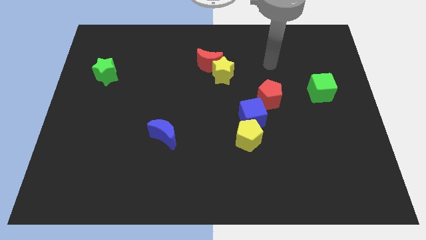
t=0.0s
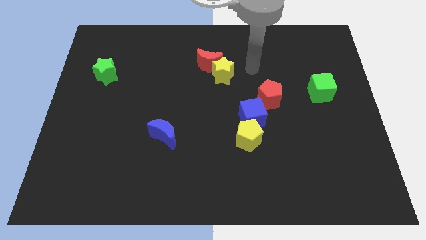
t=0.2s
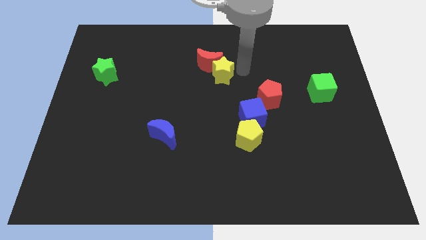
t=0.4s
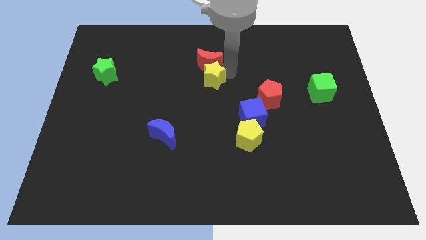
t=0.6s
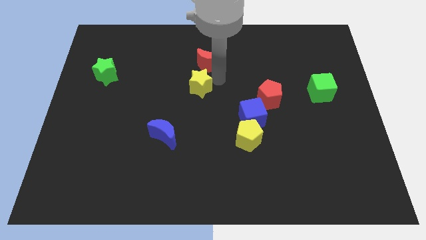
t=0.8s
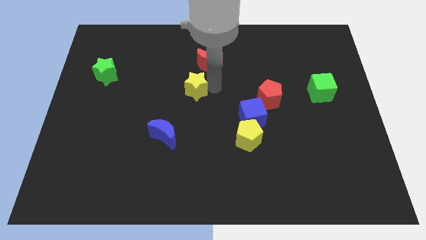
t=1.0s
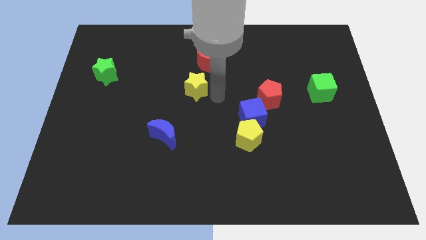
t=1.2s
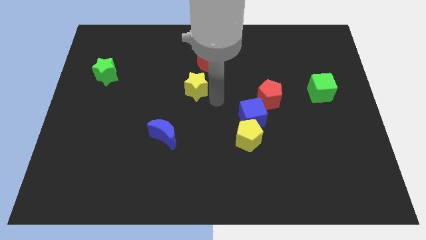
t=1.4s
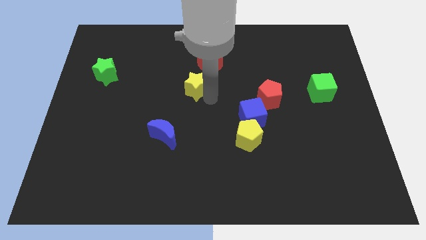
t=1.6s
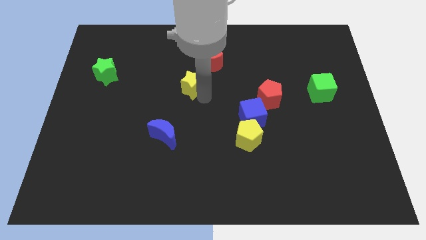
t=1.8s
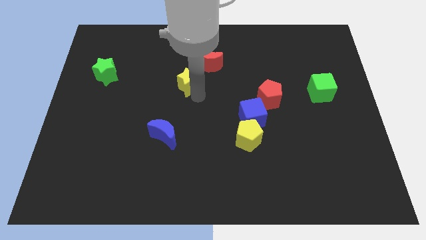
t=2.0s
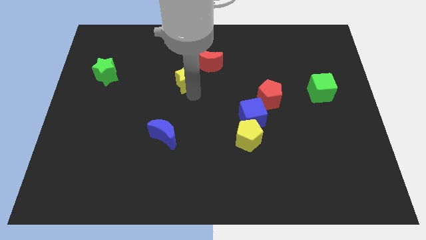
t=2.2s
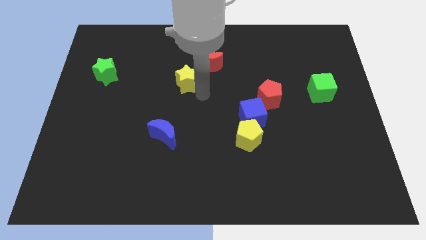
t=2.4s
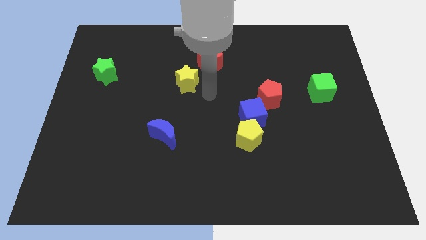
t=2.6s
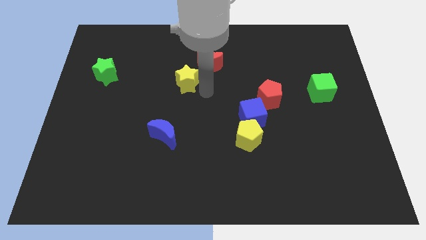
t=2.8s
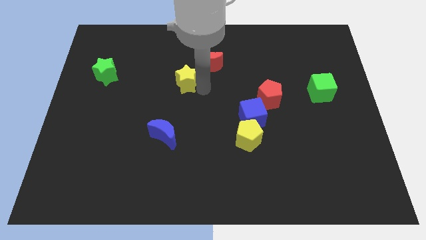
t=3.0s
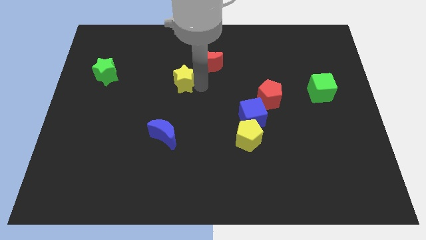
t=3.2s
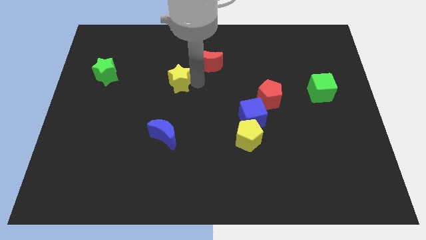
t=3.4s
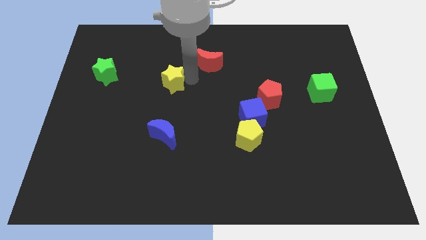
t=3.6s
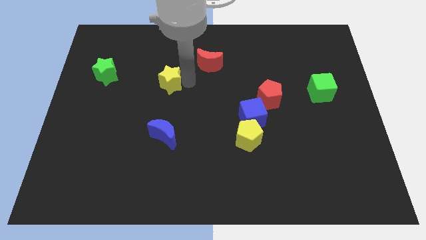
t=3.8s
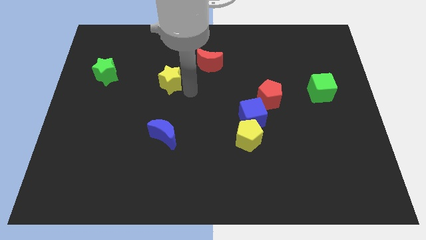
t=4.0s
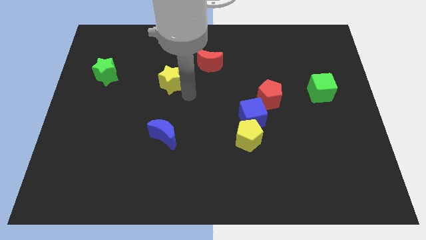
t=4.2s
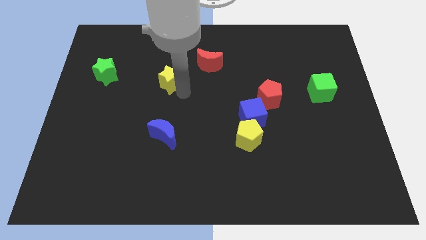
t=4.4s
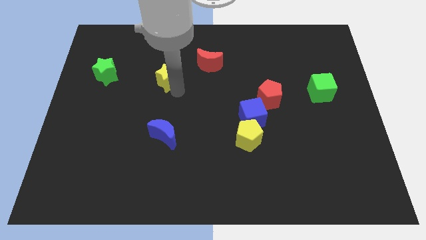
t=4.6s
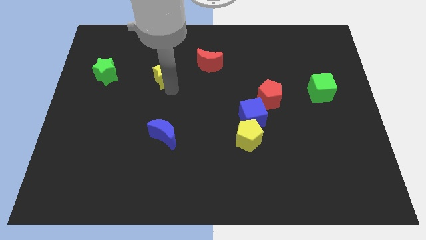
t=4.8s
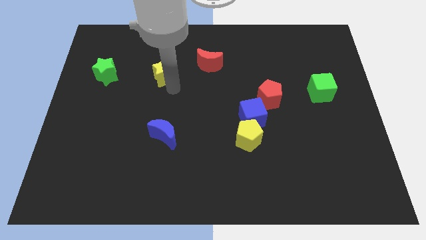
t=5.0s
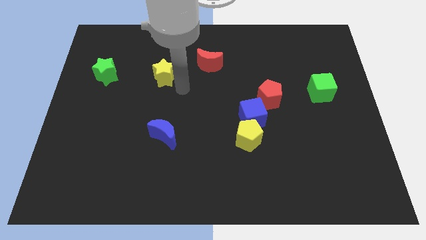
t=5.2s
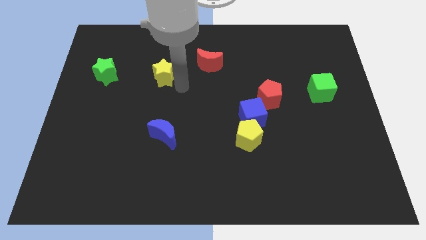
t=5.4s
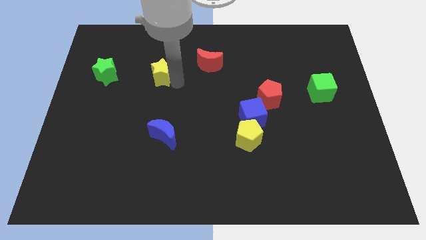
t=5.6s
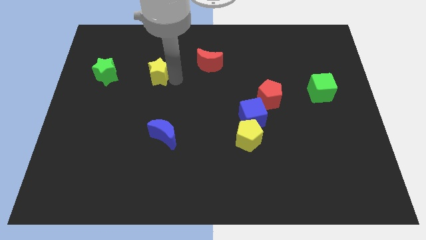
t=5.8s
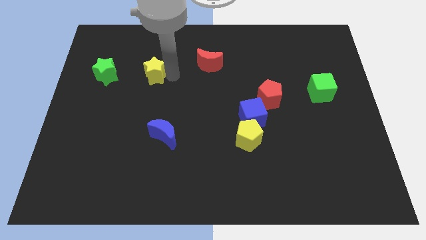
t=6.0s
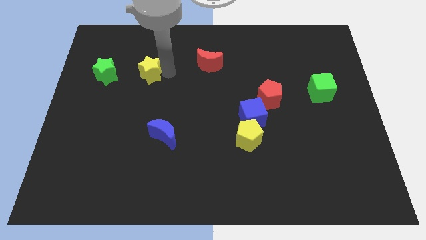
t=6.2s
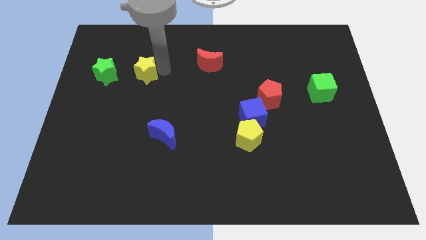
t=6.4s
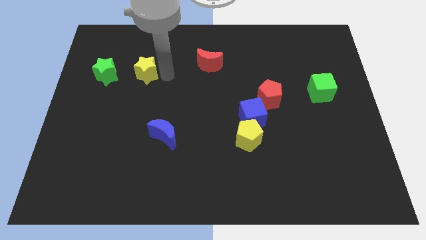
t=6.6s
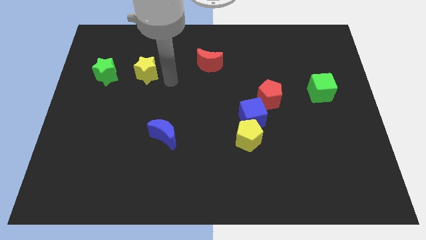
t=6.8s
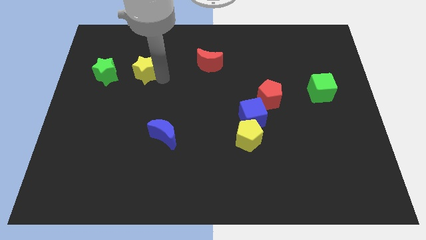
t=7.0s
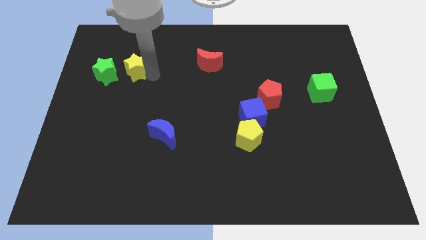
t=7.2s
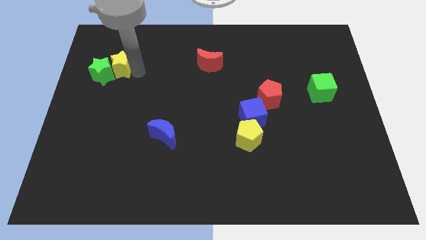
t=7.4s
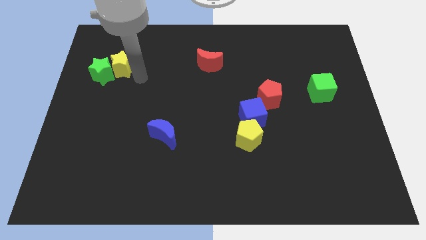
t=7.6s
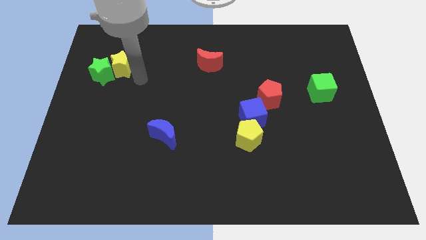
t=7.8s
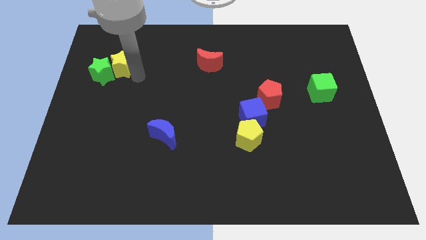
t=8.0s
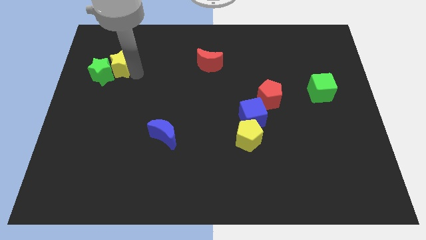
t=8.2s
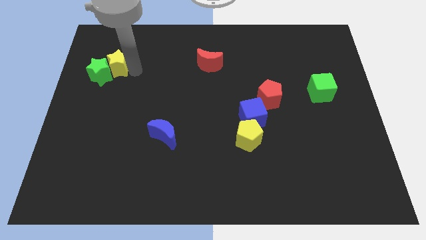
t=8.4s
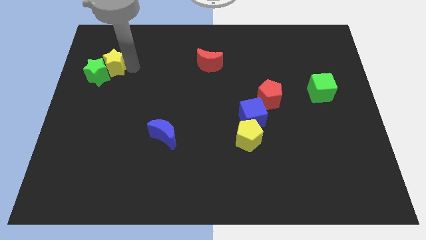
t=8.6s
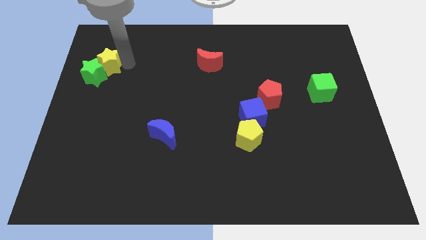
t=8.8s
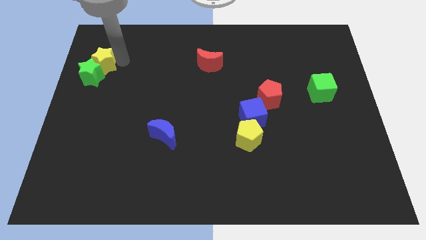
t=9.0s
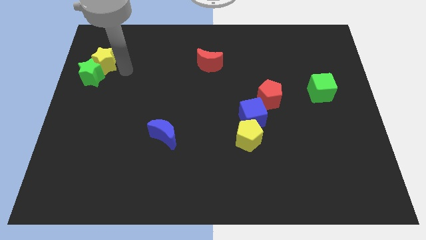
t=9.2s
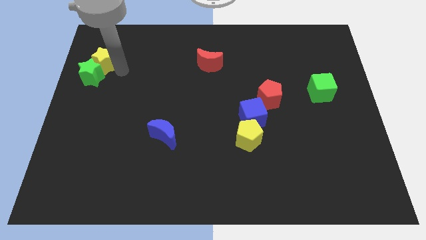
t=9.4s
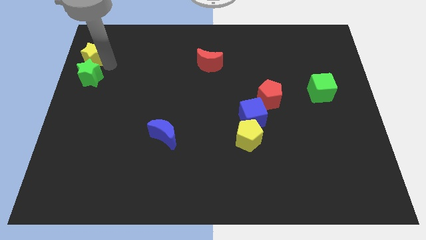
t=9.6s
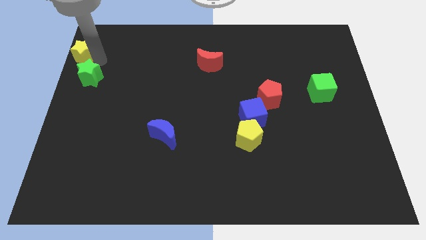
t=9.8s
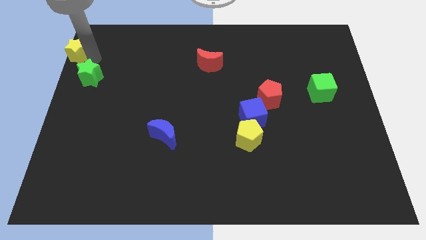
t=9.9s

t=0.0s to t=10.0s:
push the yellow star to the top left corner

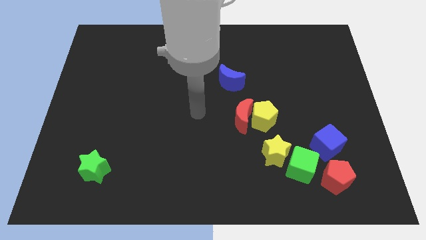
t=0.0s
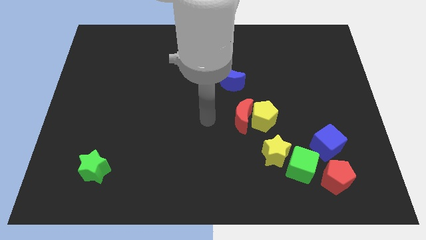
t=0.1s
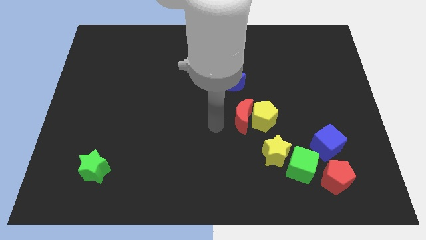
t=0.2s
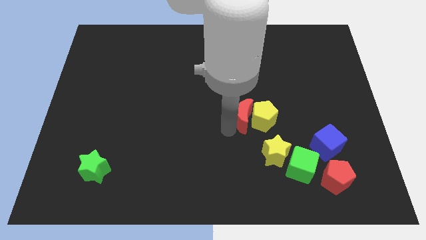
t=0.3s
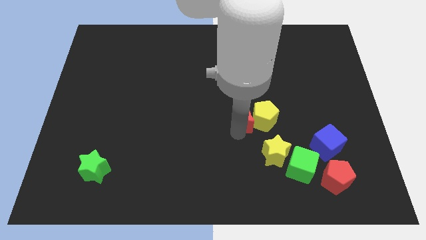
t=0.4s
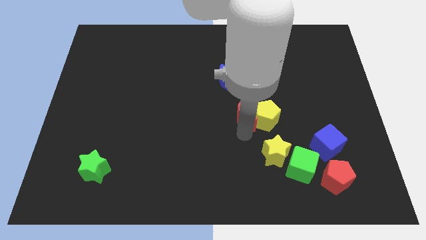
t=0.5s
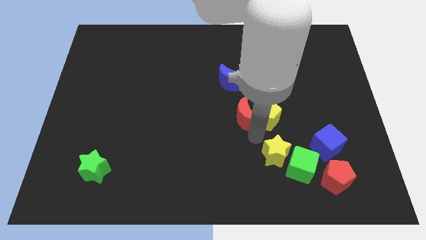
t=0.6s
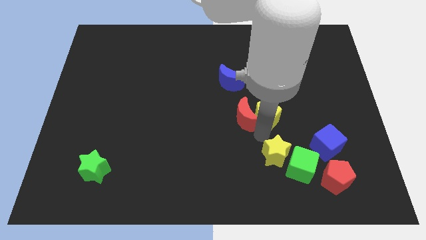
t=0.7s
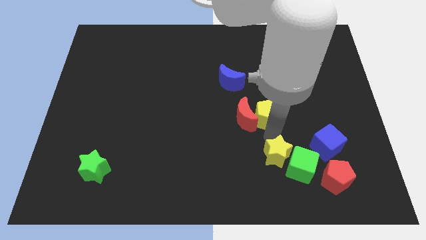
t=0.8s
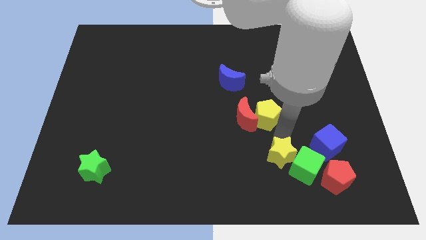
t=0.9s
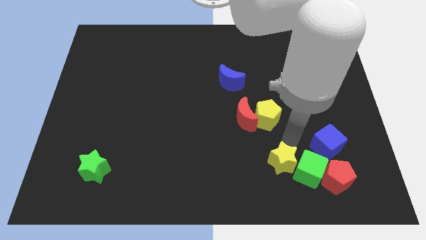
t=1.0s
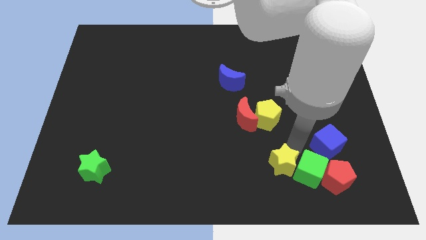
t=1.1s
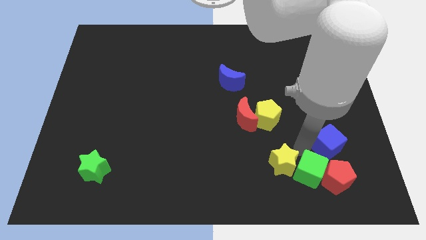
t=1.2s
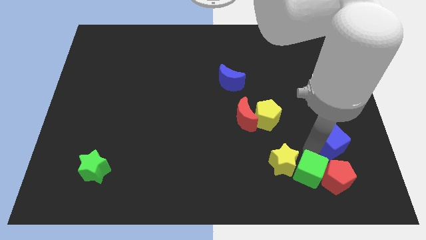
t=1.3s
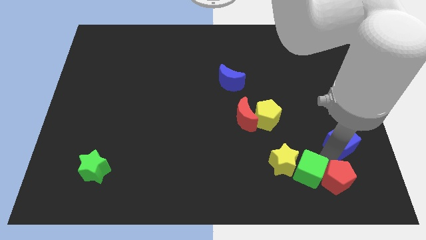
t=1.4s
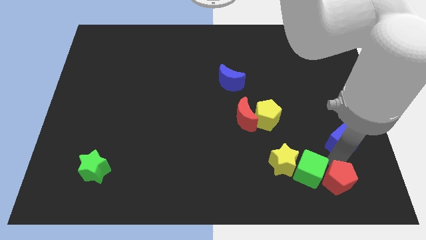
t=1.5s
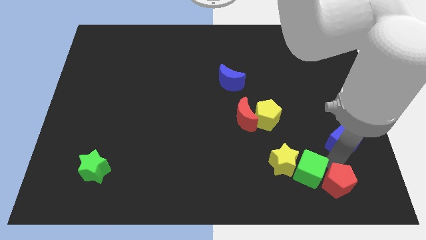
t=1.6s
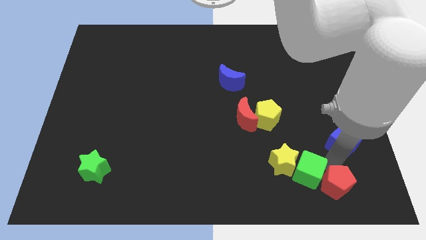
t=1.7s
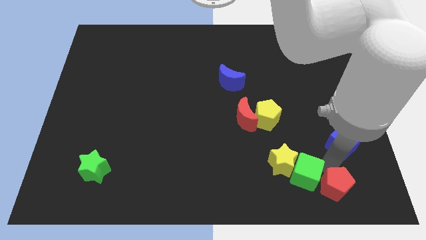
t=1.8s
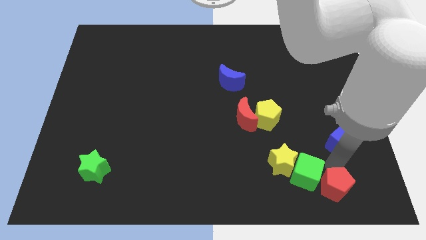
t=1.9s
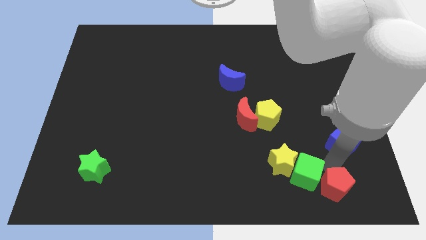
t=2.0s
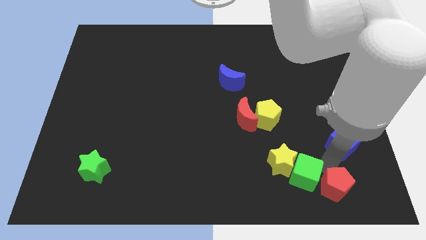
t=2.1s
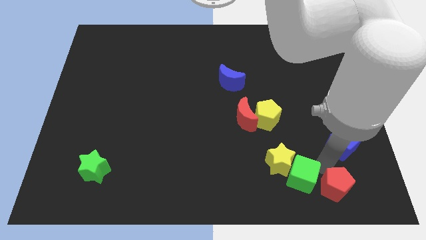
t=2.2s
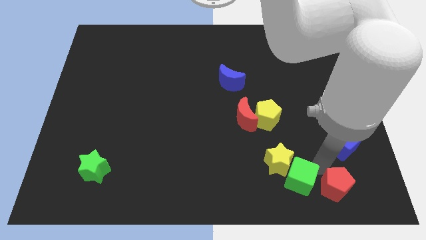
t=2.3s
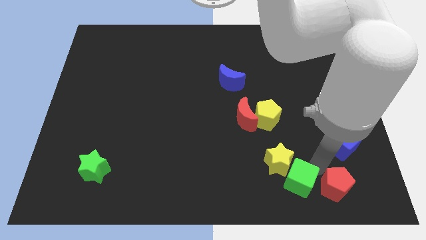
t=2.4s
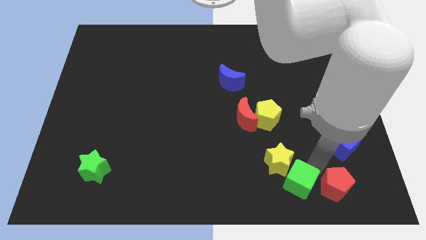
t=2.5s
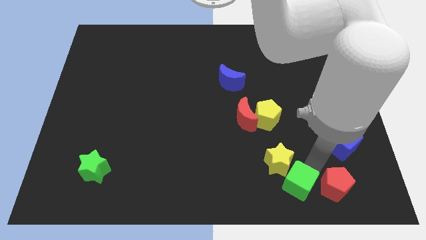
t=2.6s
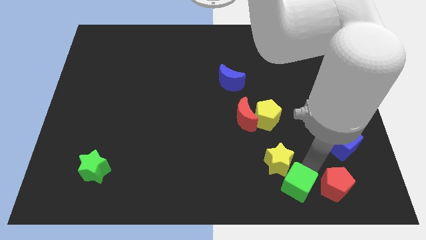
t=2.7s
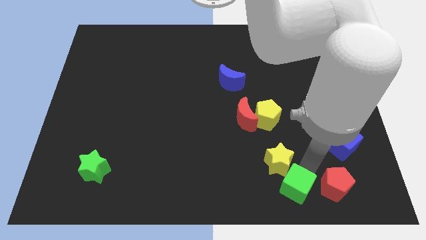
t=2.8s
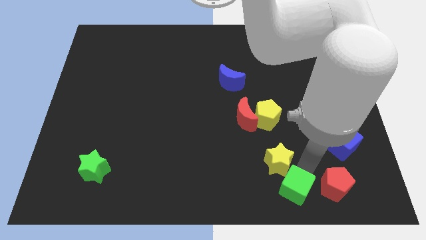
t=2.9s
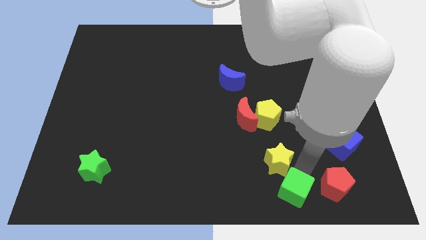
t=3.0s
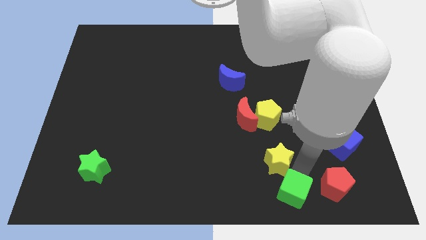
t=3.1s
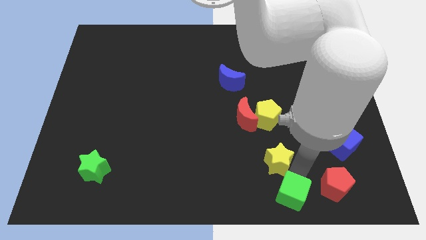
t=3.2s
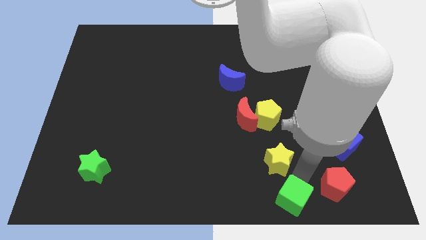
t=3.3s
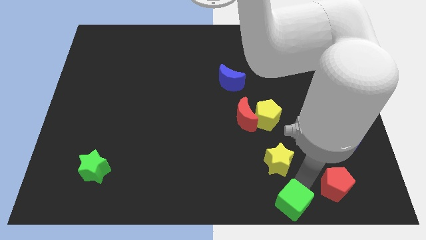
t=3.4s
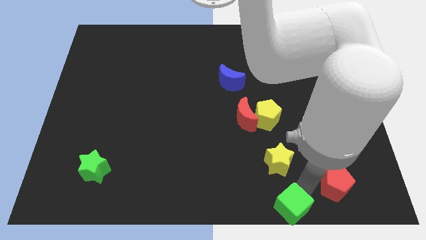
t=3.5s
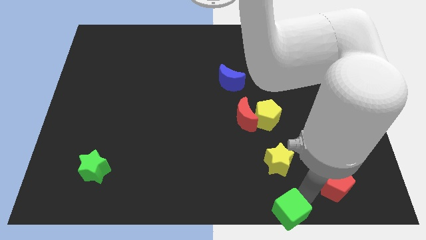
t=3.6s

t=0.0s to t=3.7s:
put the green cube to the bottom side
